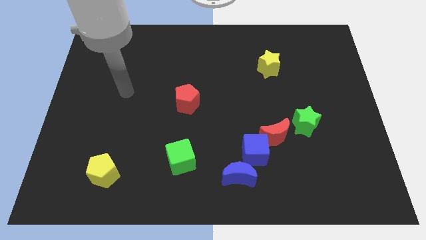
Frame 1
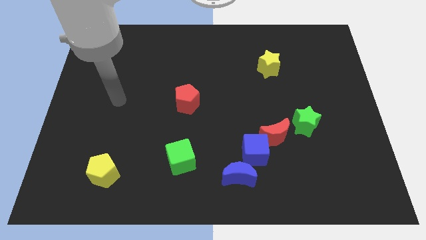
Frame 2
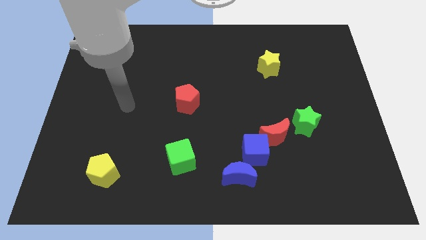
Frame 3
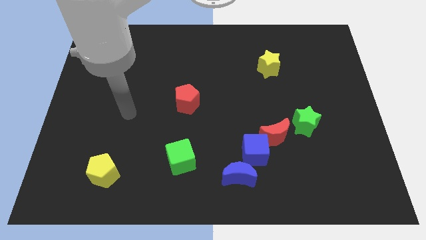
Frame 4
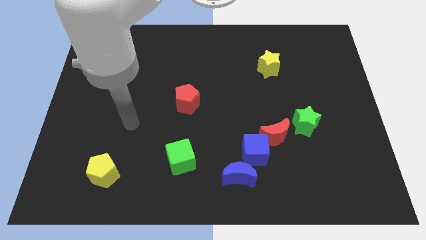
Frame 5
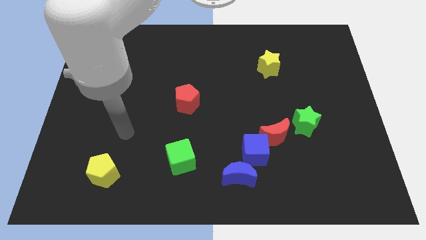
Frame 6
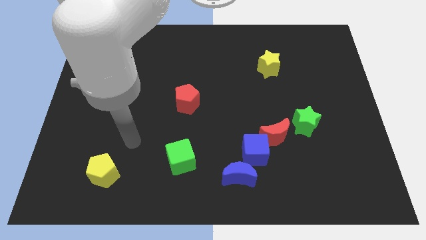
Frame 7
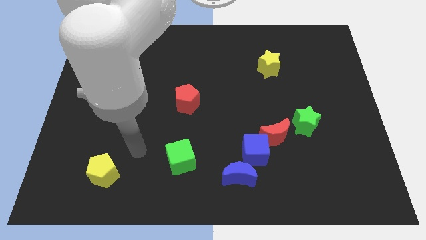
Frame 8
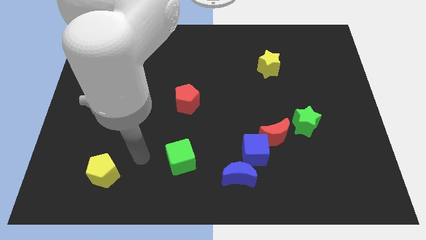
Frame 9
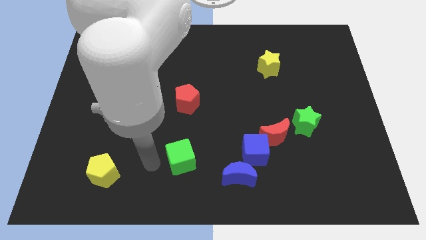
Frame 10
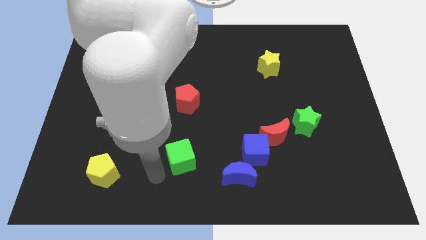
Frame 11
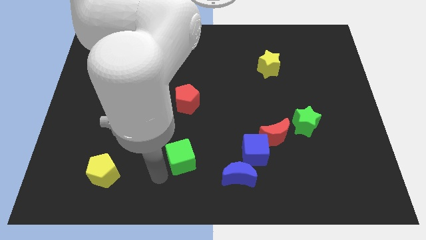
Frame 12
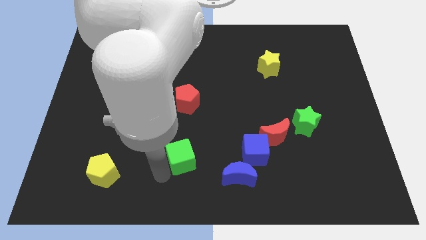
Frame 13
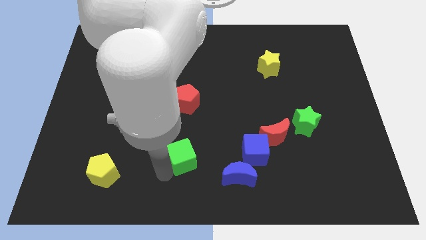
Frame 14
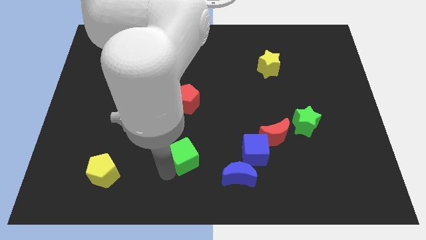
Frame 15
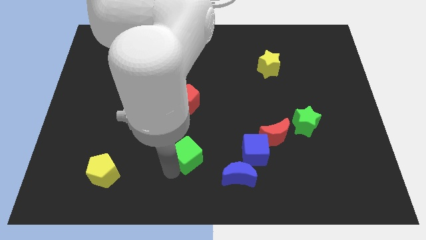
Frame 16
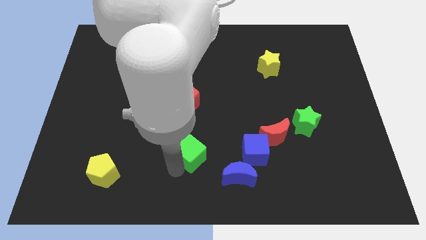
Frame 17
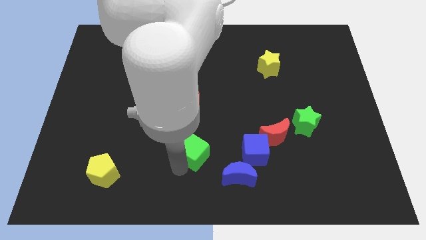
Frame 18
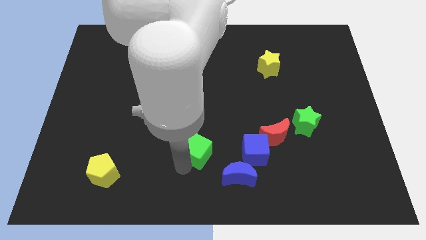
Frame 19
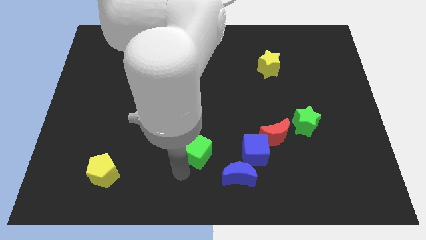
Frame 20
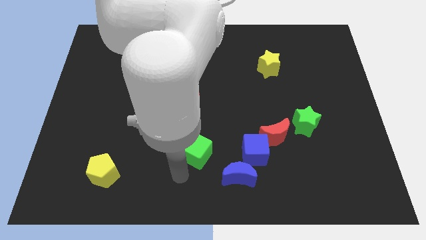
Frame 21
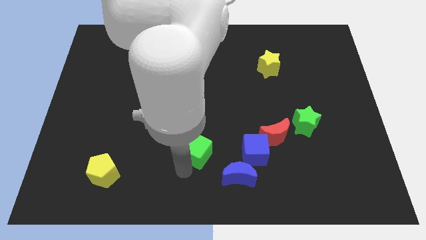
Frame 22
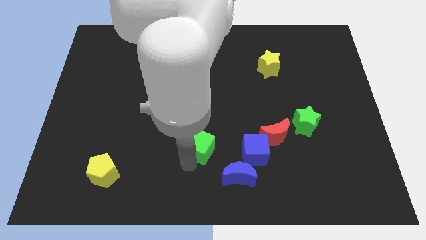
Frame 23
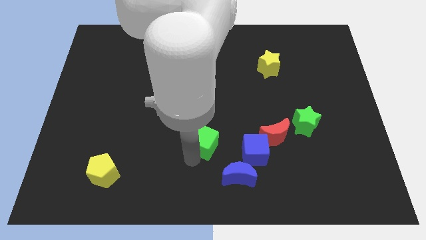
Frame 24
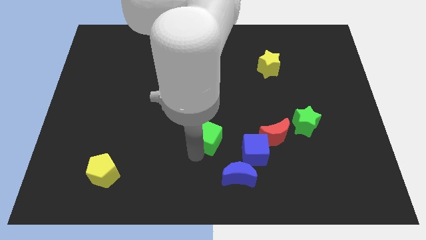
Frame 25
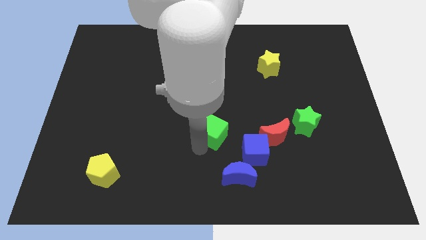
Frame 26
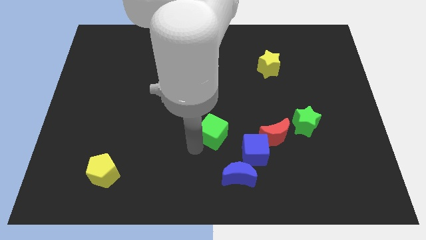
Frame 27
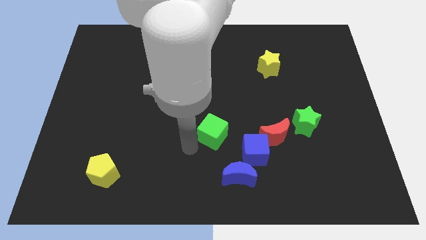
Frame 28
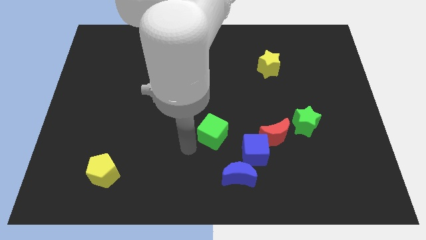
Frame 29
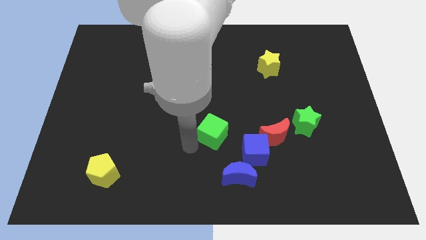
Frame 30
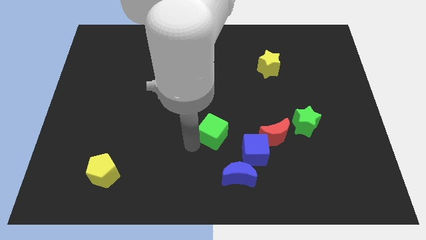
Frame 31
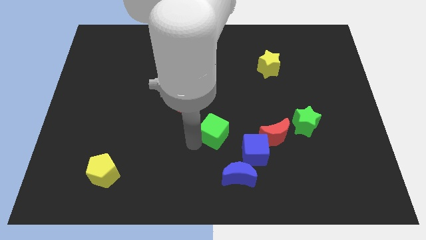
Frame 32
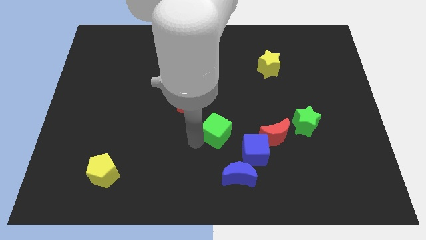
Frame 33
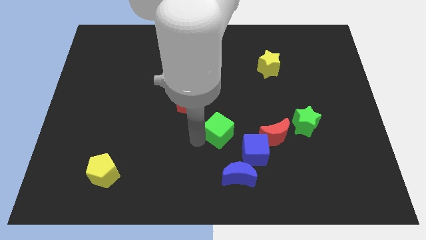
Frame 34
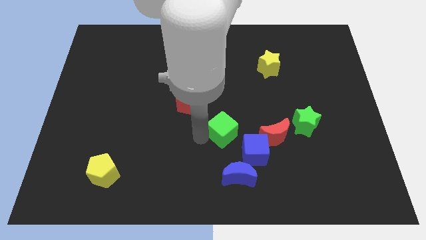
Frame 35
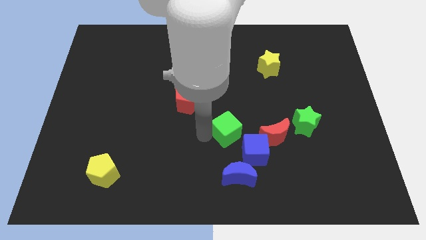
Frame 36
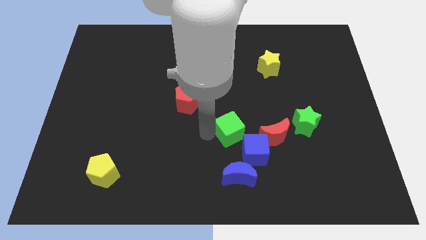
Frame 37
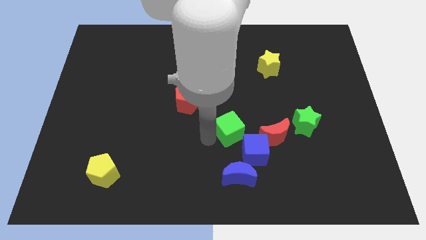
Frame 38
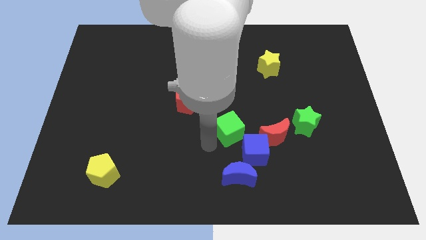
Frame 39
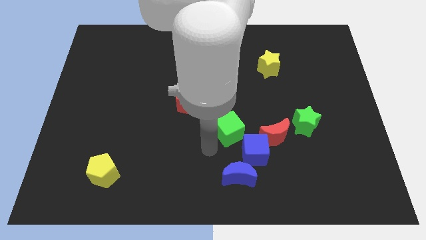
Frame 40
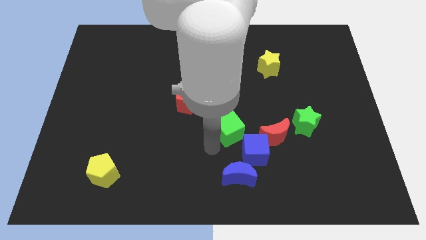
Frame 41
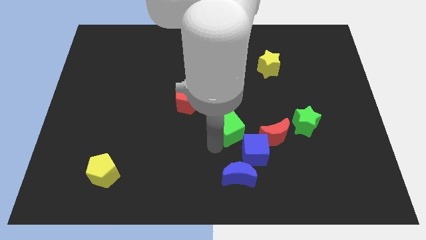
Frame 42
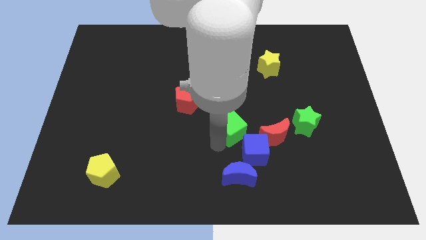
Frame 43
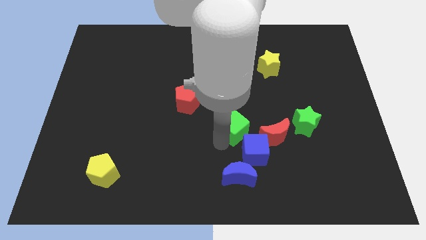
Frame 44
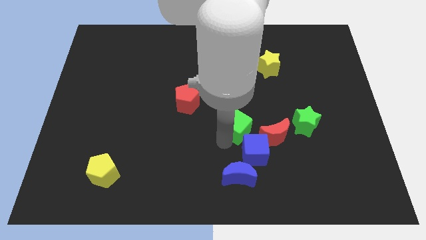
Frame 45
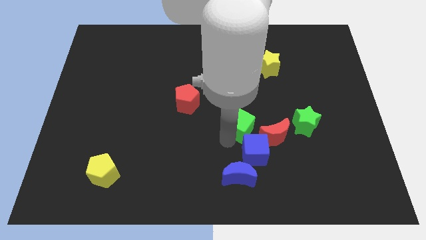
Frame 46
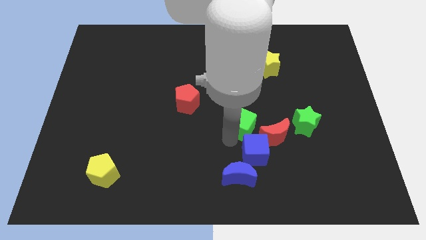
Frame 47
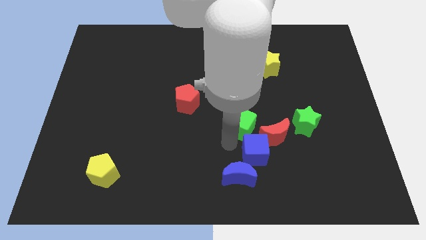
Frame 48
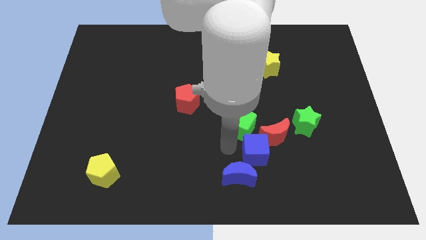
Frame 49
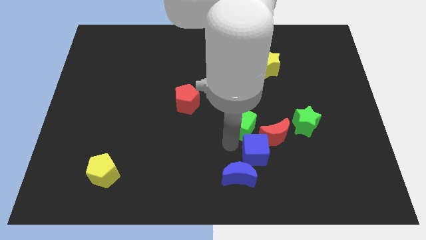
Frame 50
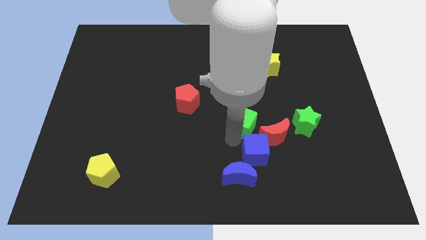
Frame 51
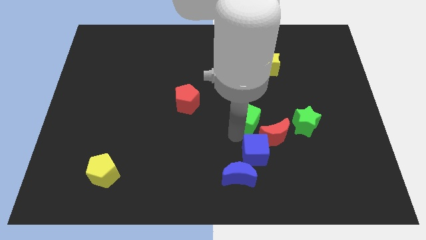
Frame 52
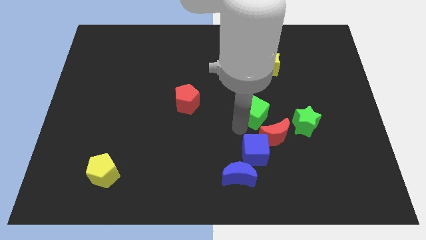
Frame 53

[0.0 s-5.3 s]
push the green cube above the red moon

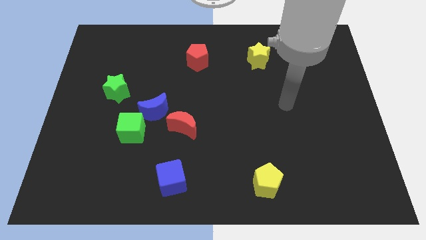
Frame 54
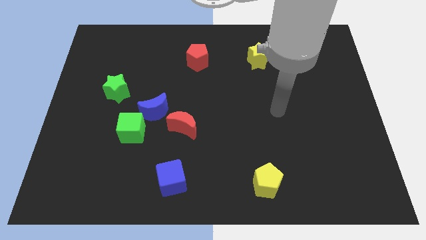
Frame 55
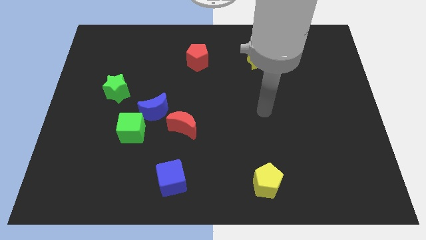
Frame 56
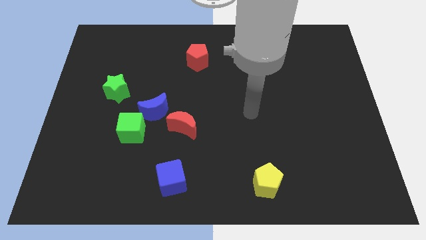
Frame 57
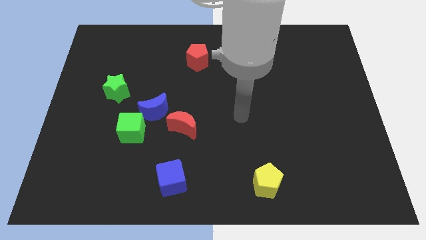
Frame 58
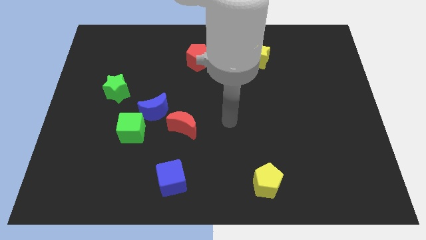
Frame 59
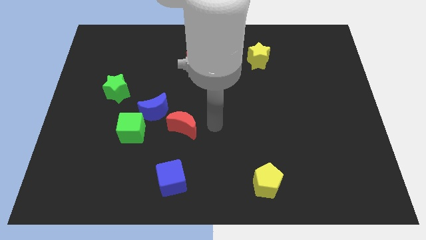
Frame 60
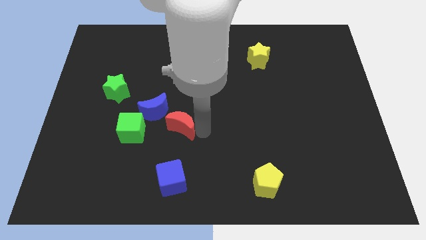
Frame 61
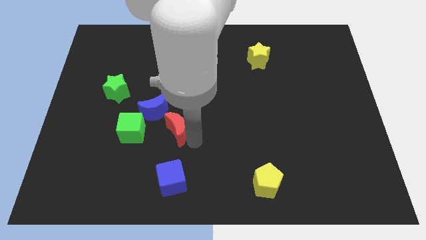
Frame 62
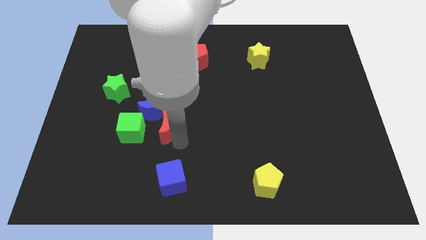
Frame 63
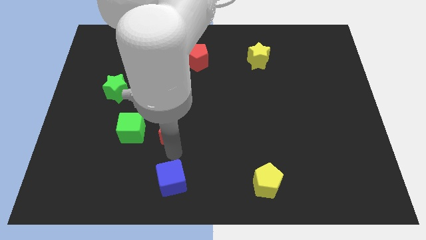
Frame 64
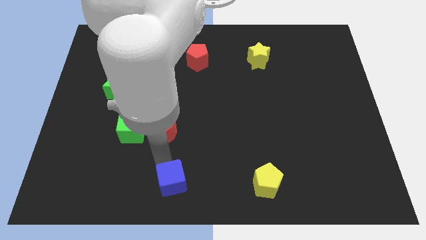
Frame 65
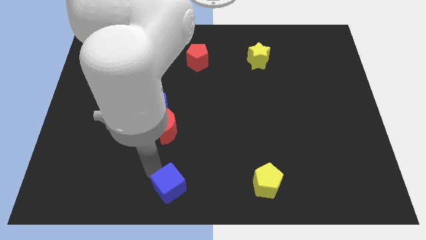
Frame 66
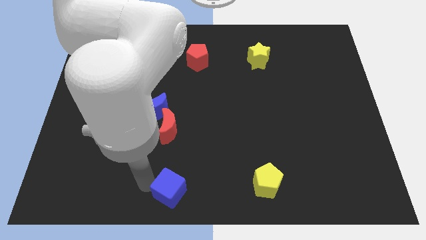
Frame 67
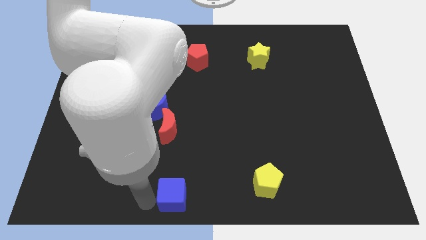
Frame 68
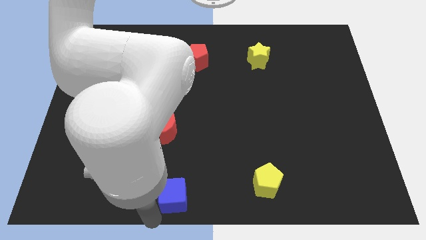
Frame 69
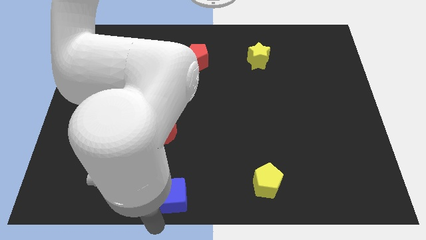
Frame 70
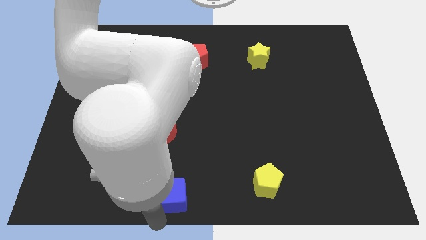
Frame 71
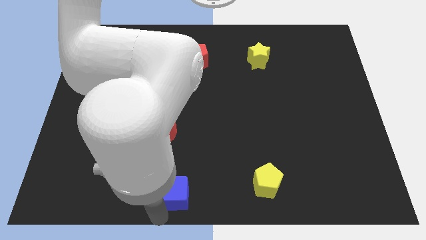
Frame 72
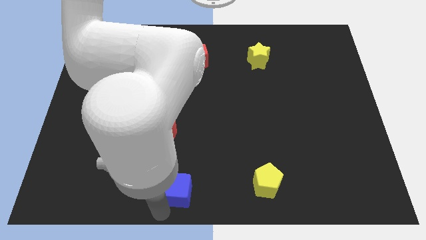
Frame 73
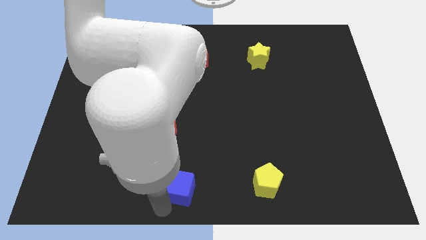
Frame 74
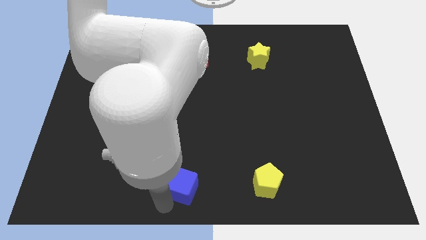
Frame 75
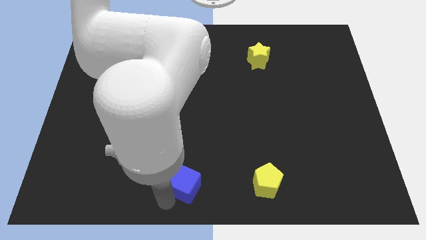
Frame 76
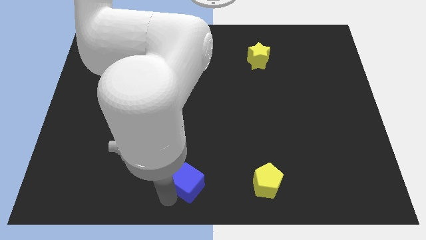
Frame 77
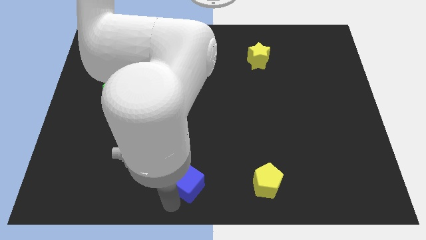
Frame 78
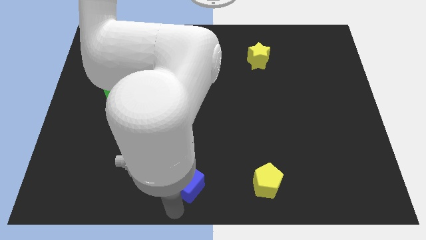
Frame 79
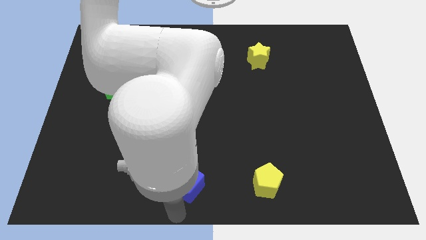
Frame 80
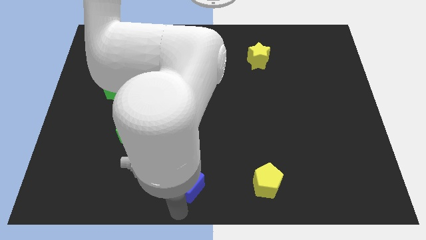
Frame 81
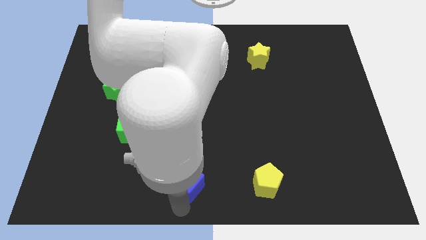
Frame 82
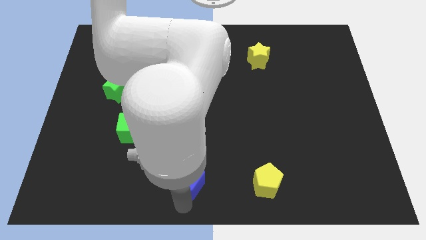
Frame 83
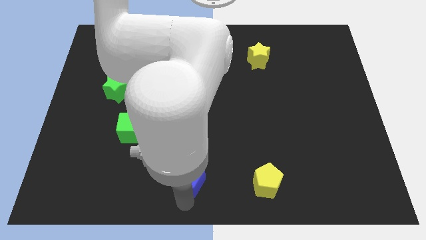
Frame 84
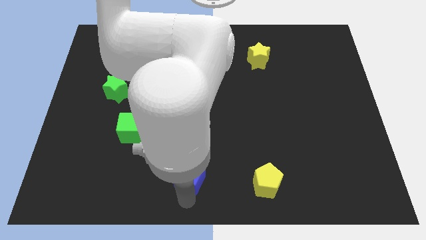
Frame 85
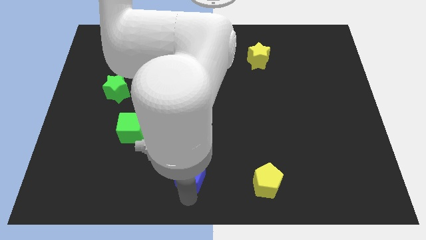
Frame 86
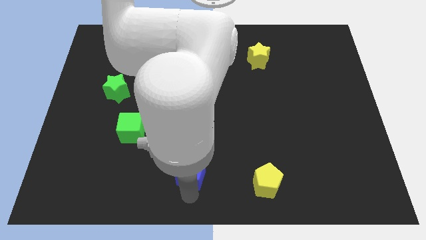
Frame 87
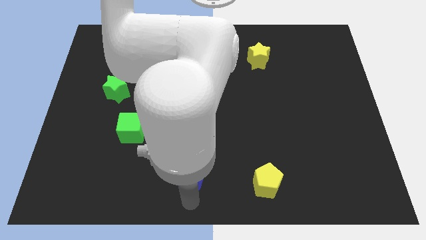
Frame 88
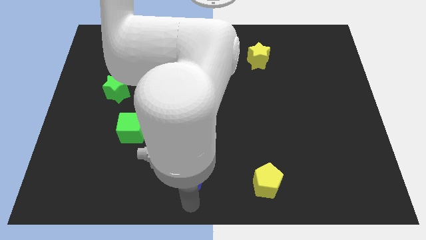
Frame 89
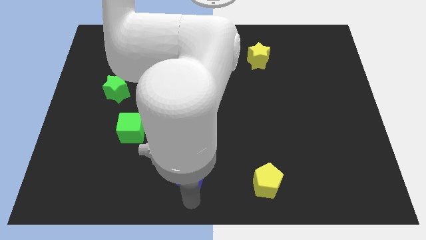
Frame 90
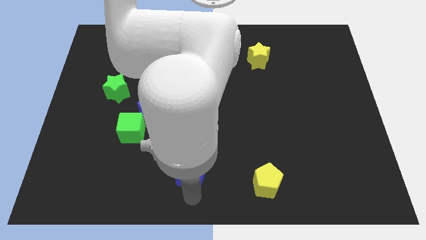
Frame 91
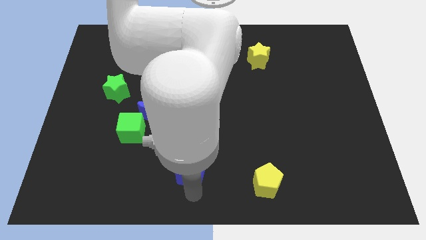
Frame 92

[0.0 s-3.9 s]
move the blue cube diagonally down and to the right of the red moon
